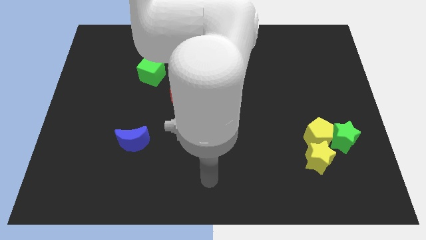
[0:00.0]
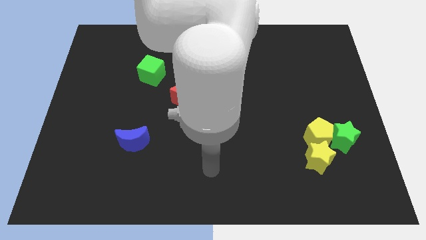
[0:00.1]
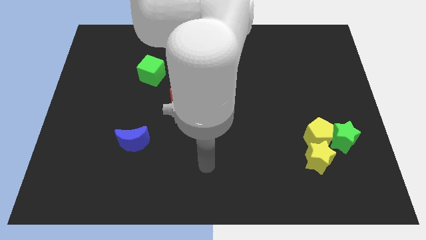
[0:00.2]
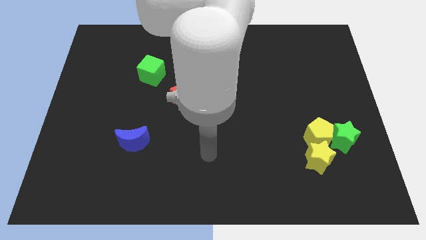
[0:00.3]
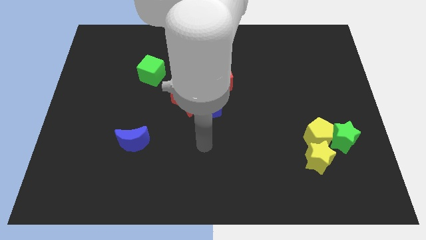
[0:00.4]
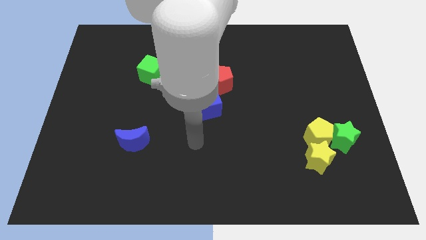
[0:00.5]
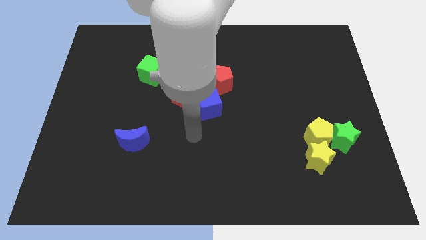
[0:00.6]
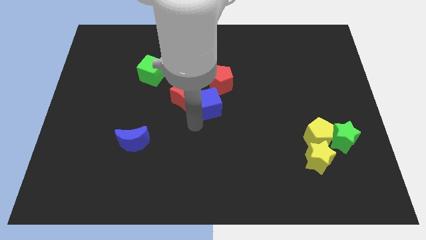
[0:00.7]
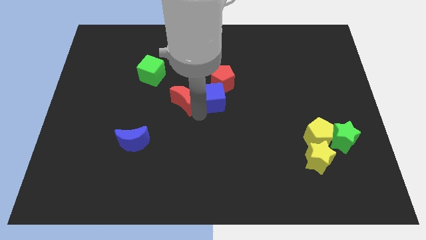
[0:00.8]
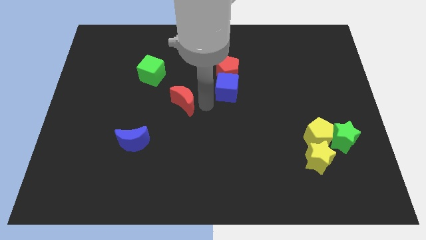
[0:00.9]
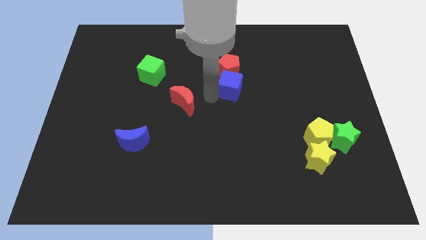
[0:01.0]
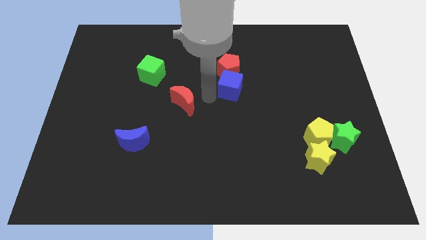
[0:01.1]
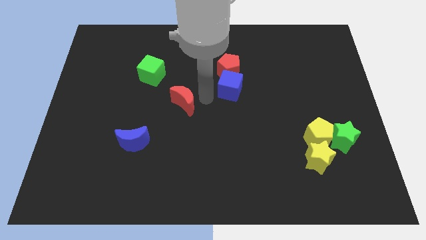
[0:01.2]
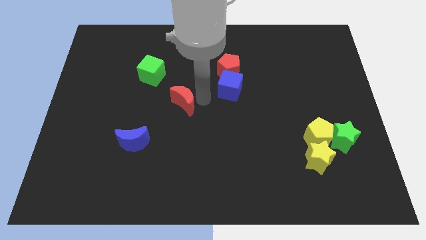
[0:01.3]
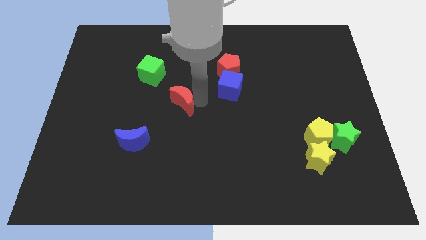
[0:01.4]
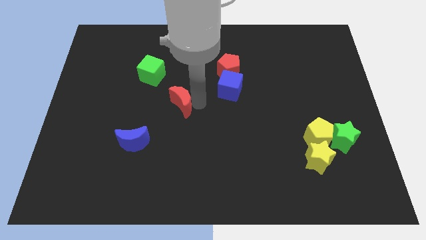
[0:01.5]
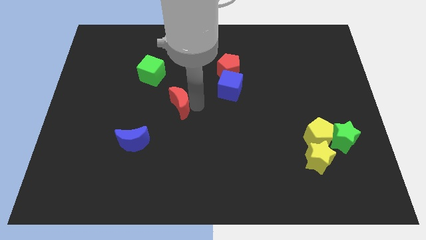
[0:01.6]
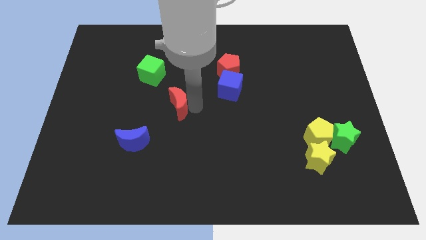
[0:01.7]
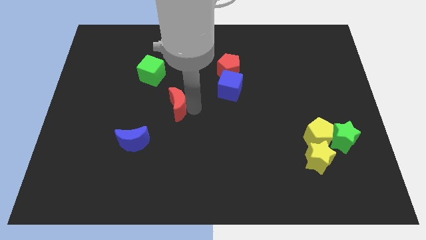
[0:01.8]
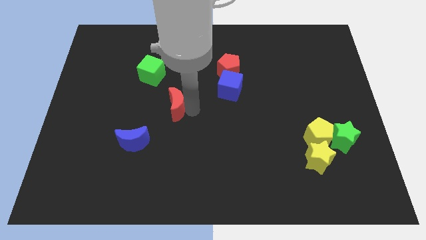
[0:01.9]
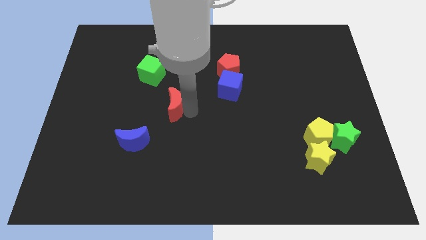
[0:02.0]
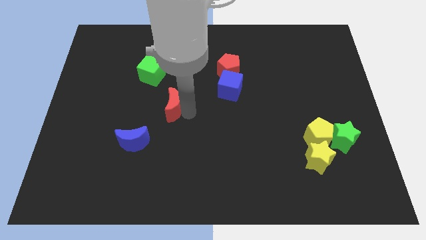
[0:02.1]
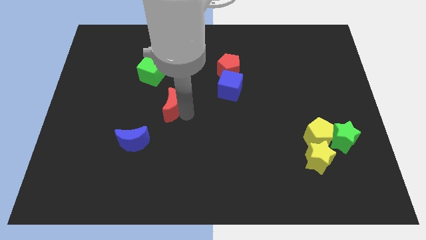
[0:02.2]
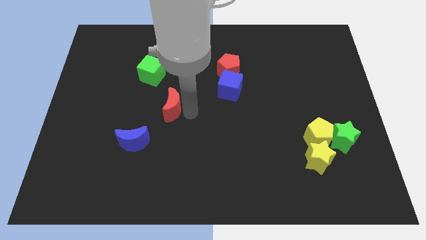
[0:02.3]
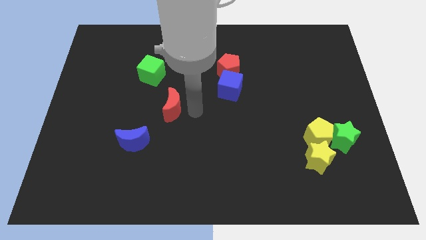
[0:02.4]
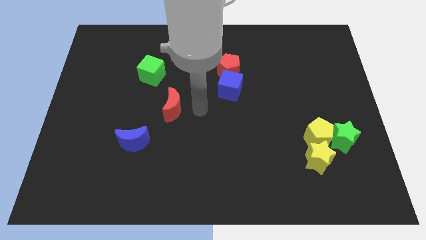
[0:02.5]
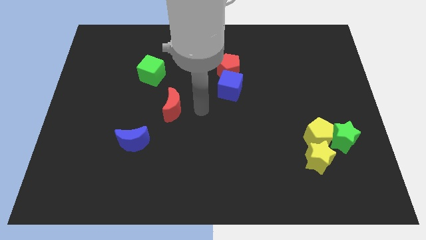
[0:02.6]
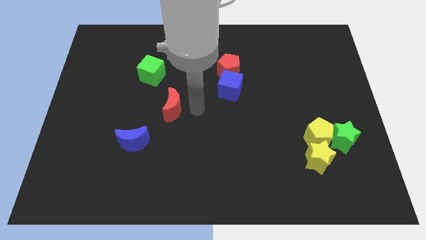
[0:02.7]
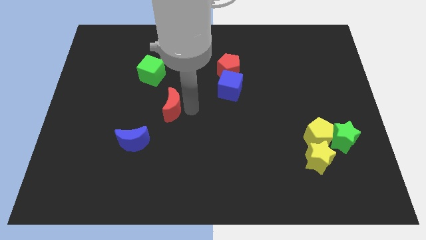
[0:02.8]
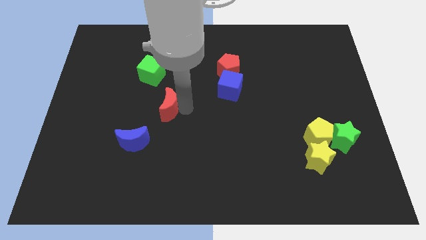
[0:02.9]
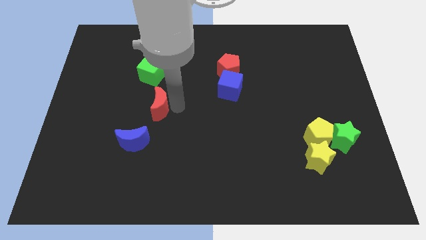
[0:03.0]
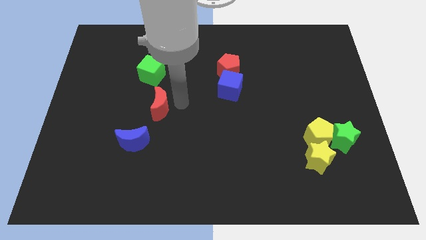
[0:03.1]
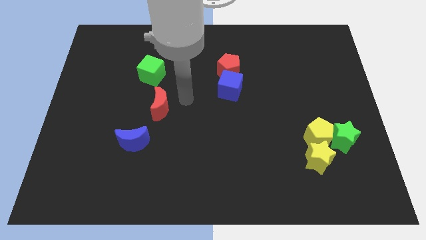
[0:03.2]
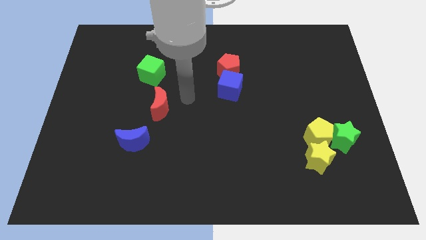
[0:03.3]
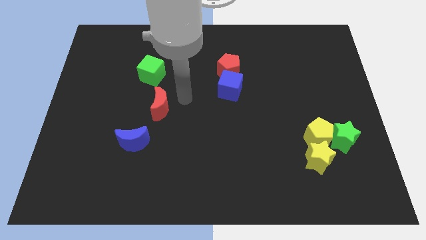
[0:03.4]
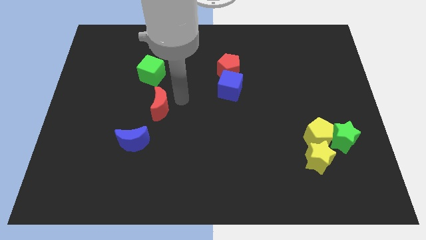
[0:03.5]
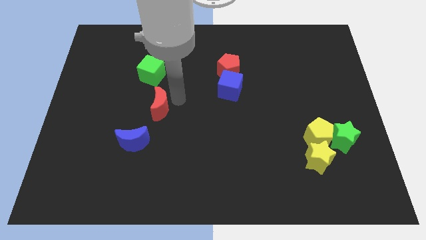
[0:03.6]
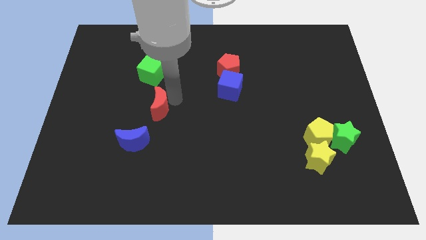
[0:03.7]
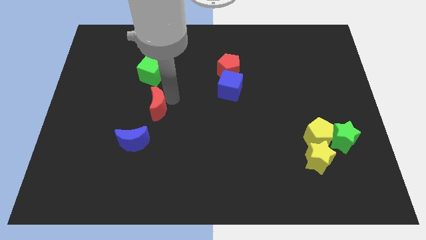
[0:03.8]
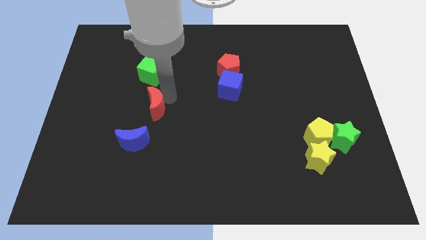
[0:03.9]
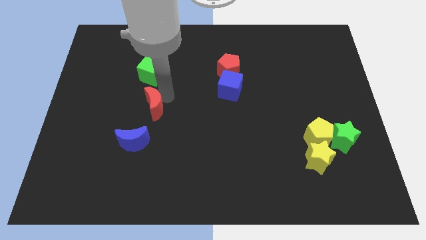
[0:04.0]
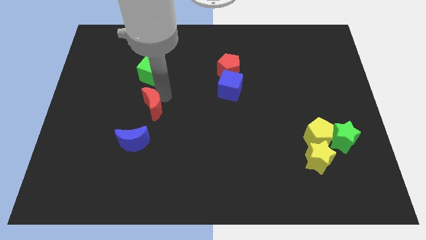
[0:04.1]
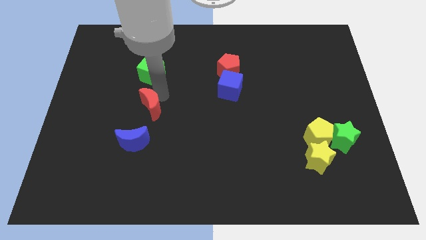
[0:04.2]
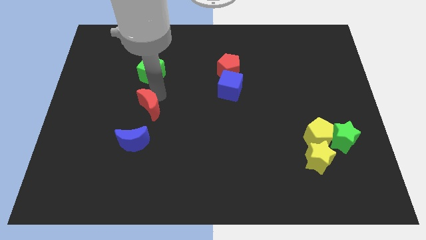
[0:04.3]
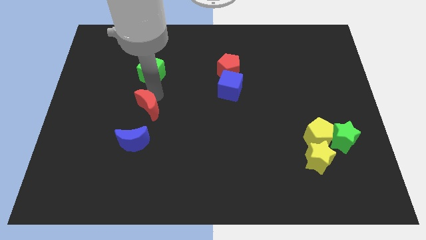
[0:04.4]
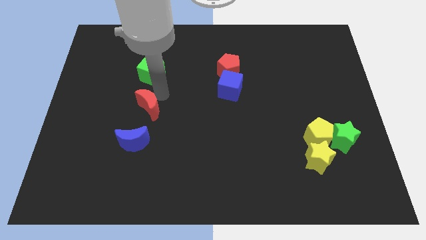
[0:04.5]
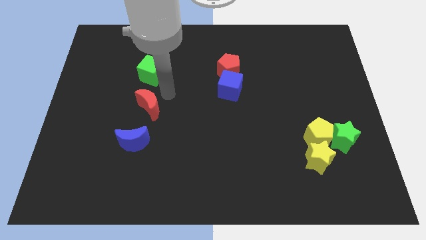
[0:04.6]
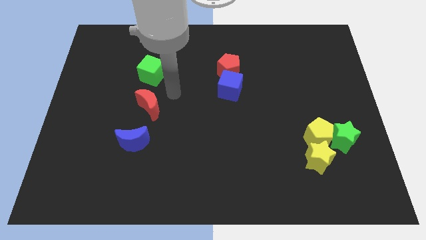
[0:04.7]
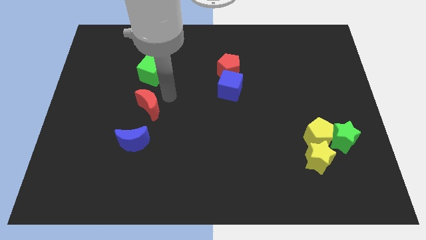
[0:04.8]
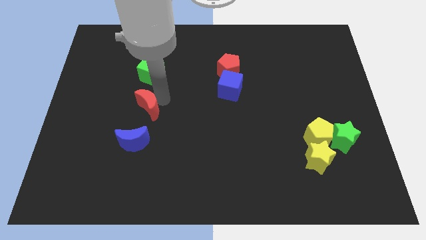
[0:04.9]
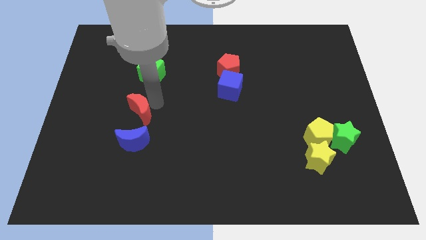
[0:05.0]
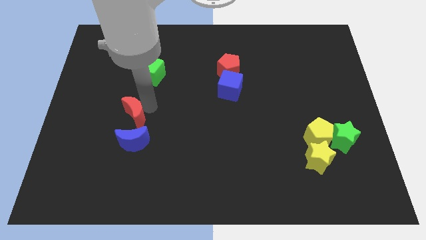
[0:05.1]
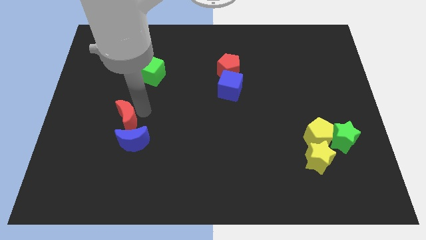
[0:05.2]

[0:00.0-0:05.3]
move the red moon to the top left side of the blue moon

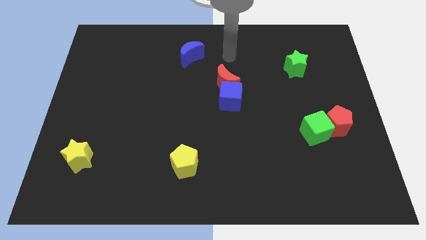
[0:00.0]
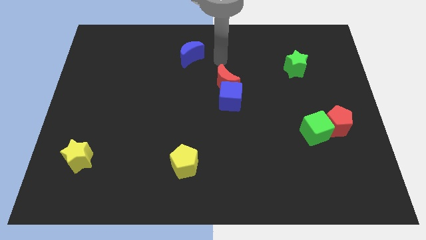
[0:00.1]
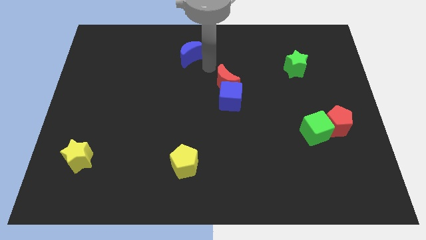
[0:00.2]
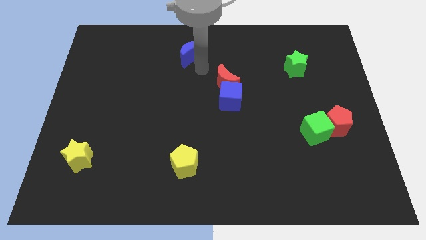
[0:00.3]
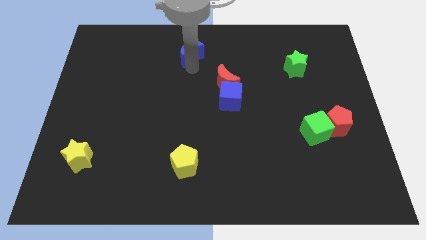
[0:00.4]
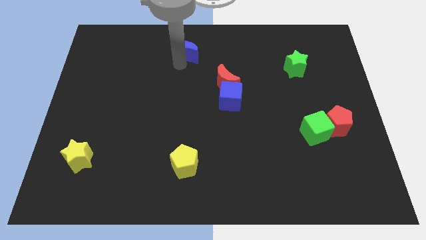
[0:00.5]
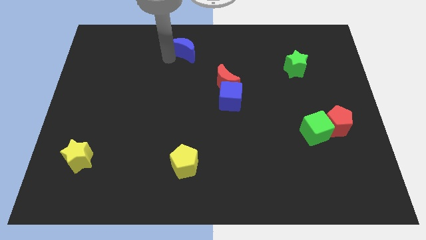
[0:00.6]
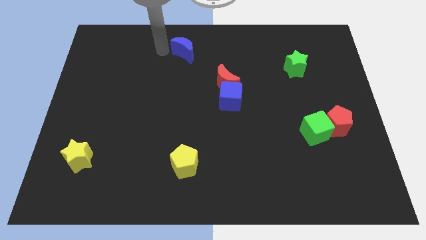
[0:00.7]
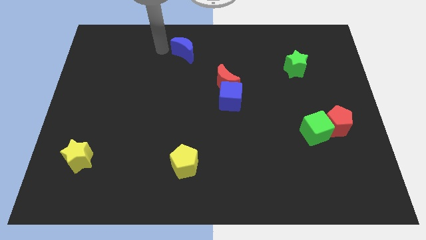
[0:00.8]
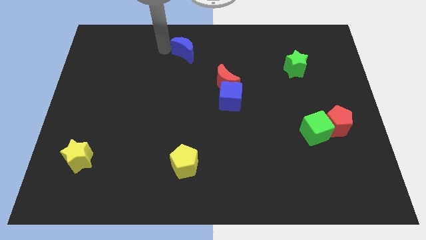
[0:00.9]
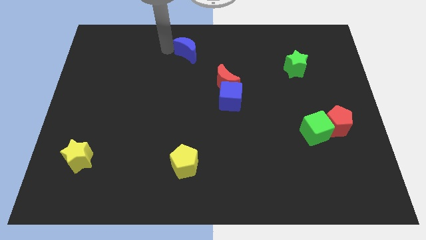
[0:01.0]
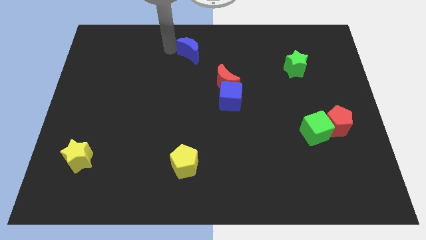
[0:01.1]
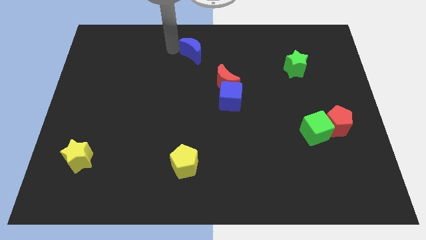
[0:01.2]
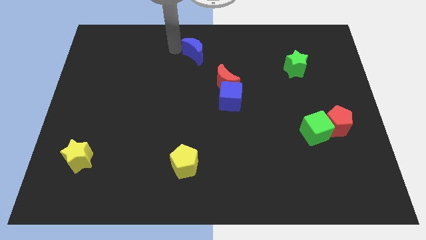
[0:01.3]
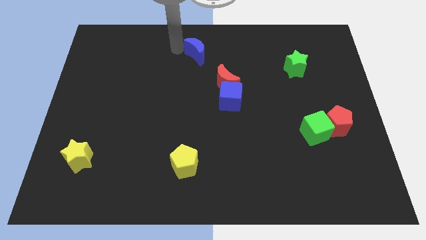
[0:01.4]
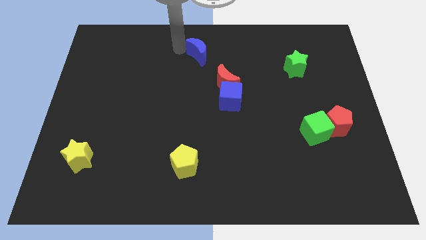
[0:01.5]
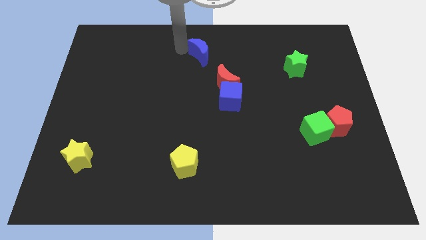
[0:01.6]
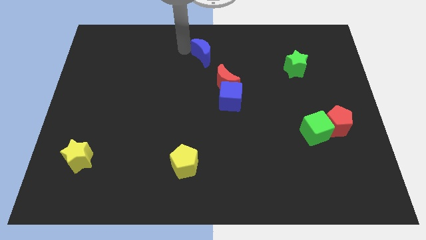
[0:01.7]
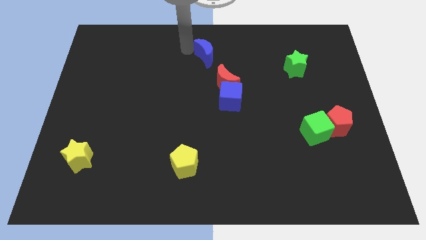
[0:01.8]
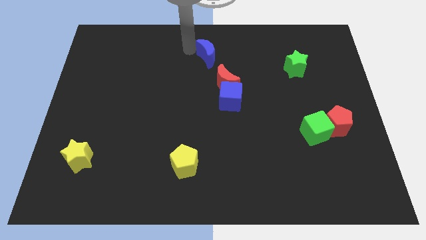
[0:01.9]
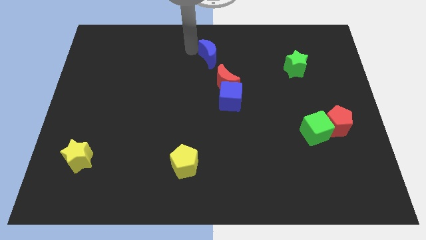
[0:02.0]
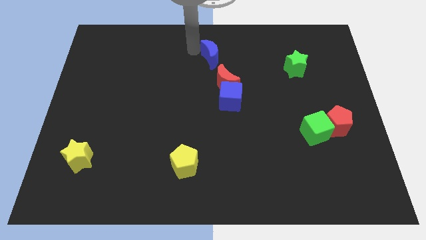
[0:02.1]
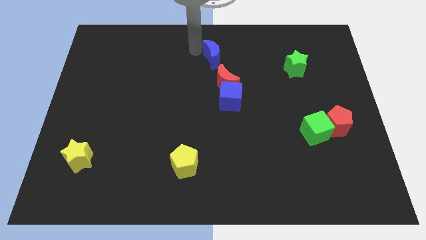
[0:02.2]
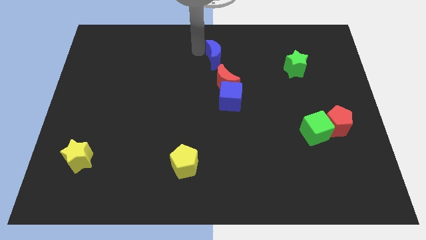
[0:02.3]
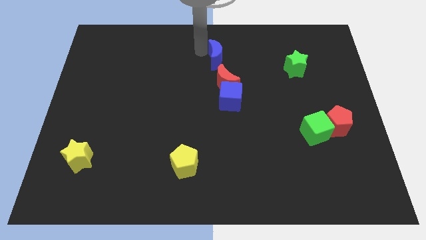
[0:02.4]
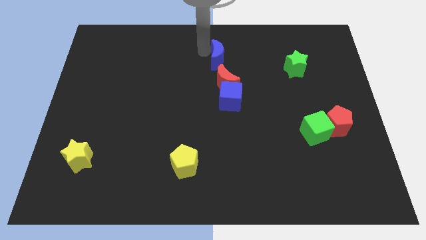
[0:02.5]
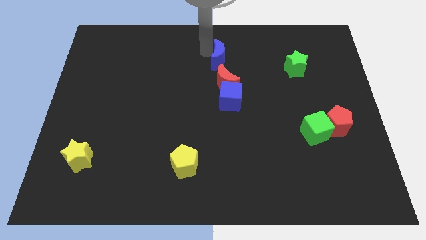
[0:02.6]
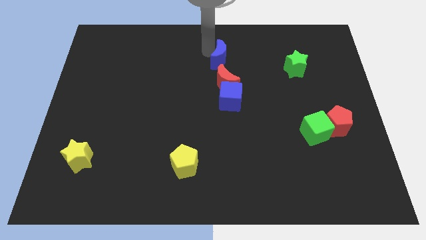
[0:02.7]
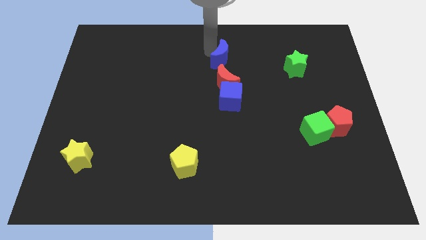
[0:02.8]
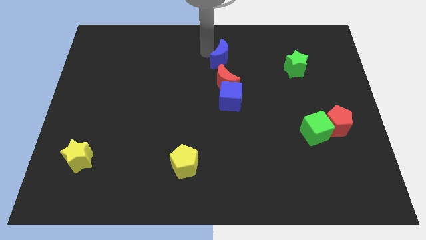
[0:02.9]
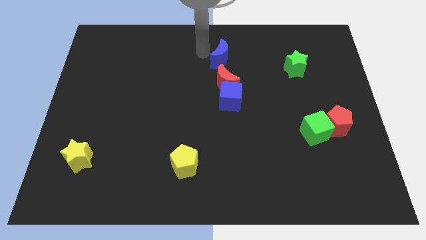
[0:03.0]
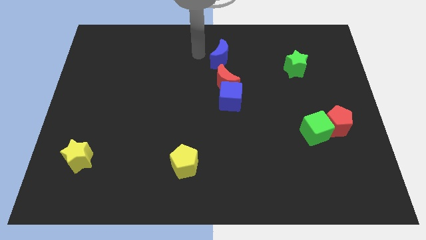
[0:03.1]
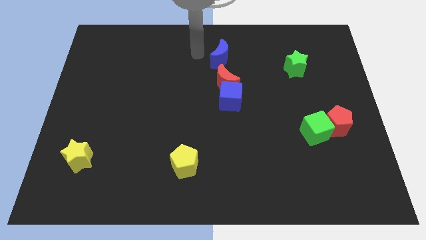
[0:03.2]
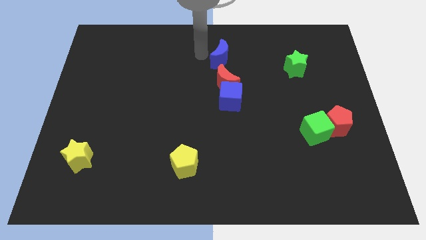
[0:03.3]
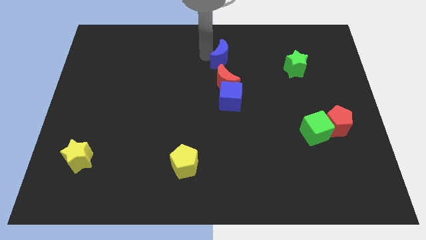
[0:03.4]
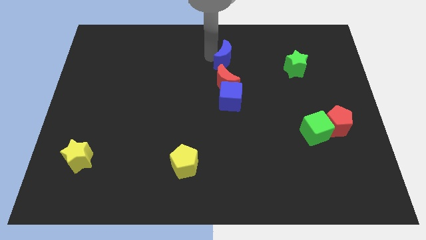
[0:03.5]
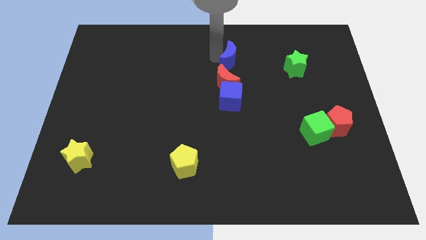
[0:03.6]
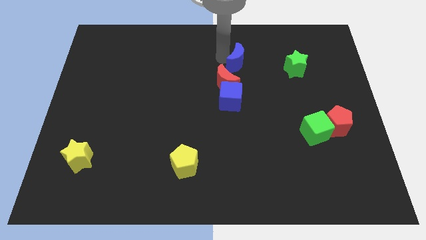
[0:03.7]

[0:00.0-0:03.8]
put the blue moon just left of the green star
